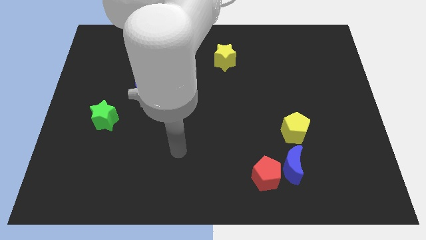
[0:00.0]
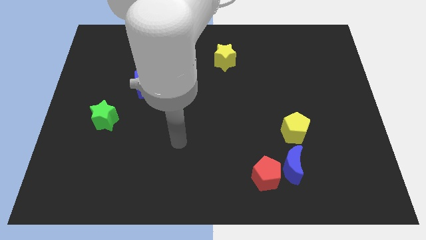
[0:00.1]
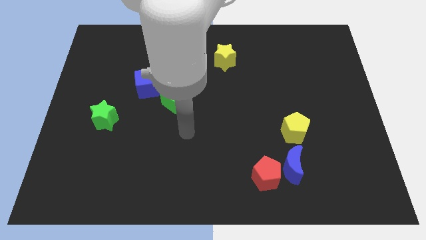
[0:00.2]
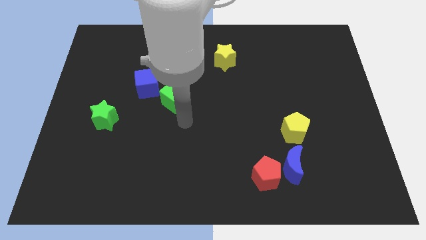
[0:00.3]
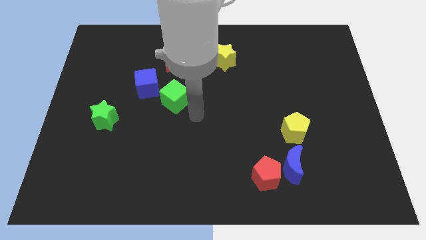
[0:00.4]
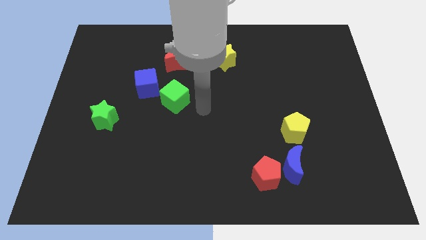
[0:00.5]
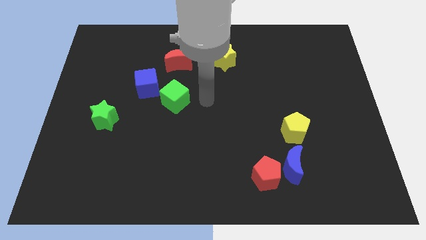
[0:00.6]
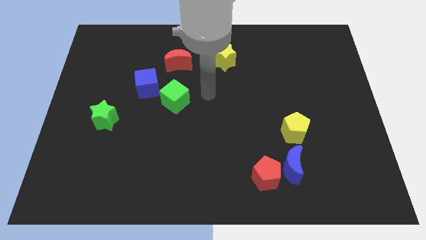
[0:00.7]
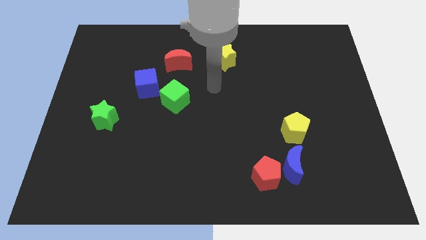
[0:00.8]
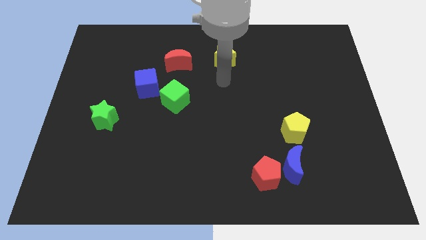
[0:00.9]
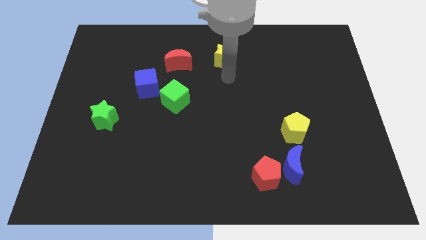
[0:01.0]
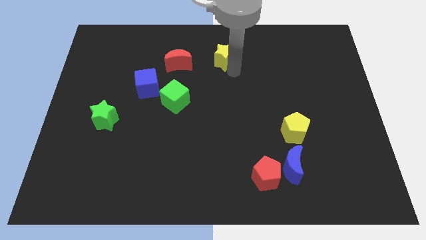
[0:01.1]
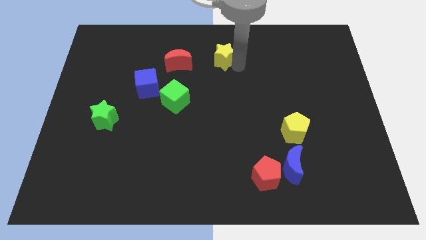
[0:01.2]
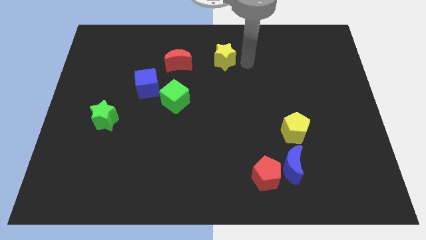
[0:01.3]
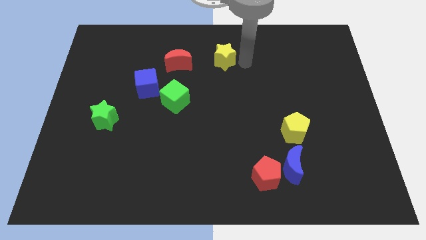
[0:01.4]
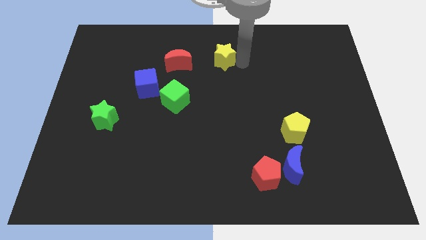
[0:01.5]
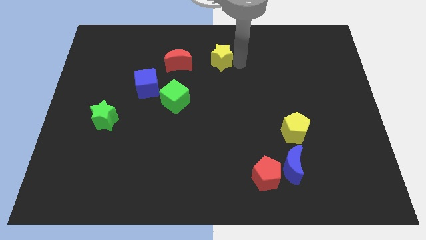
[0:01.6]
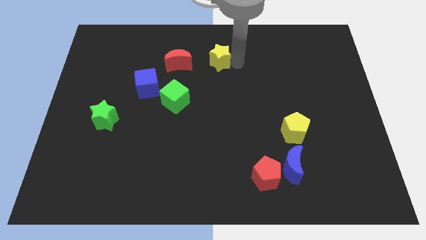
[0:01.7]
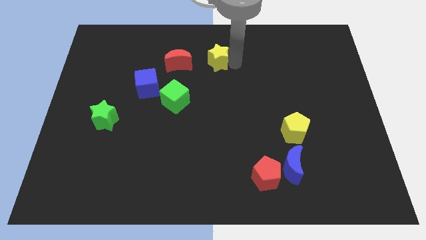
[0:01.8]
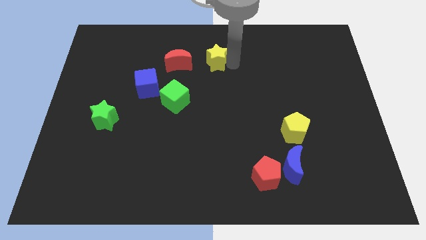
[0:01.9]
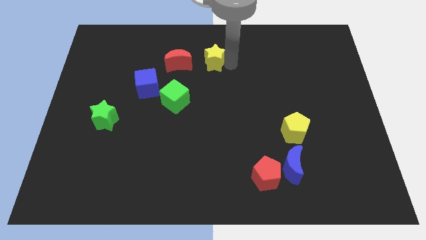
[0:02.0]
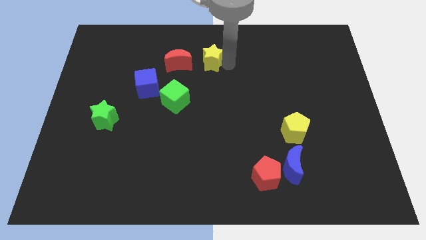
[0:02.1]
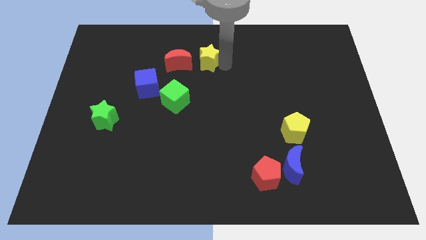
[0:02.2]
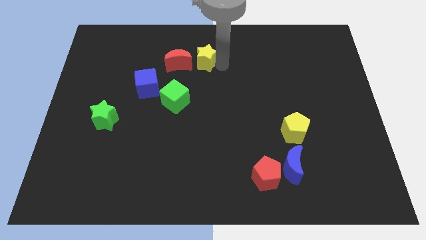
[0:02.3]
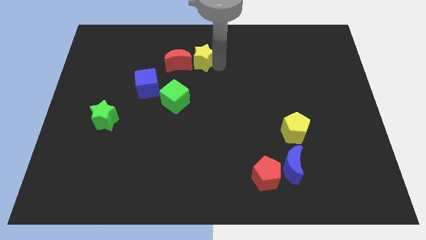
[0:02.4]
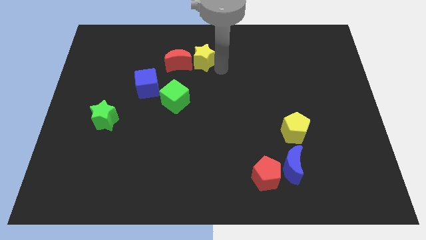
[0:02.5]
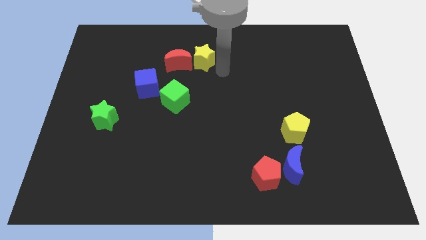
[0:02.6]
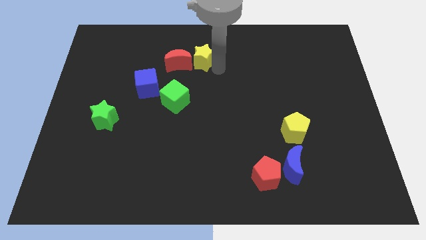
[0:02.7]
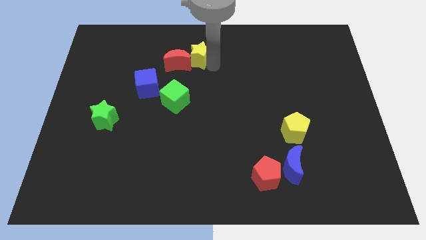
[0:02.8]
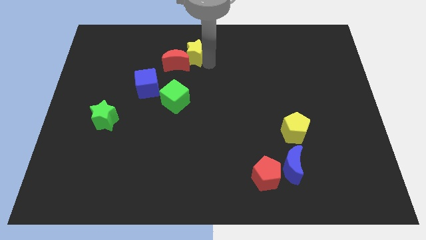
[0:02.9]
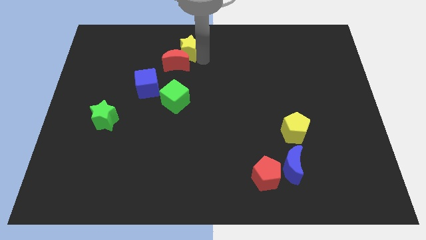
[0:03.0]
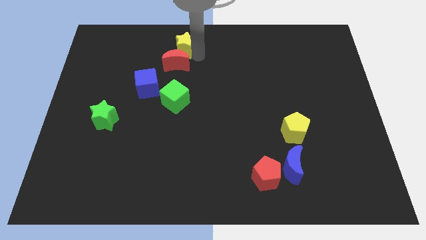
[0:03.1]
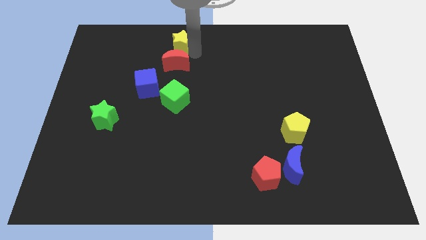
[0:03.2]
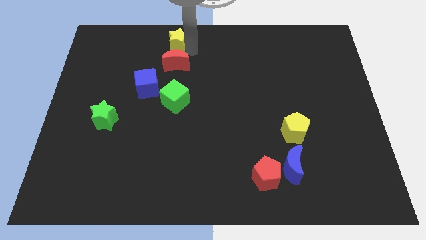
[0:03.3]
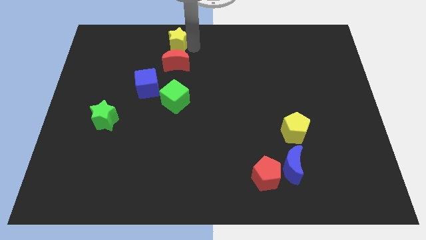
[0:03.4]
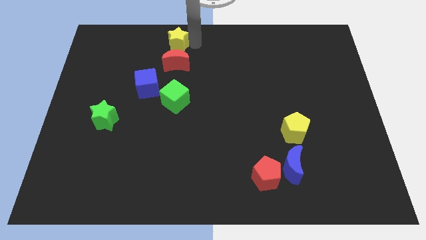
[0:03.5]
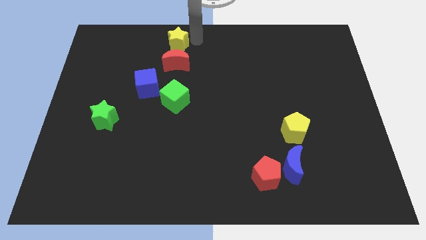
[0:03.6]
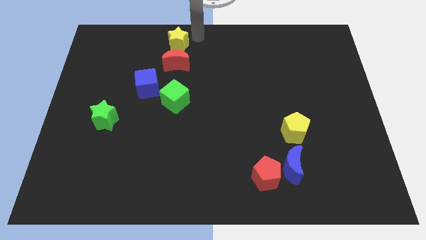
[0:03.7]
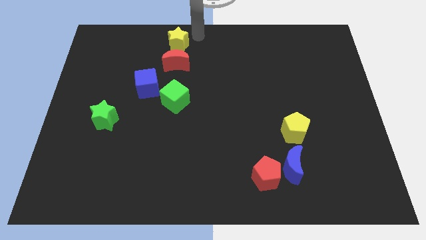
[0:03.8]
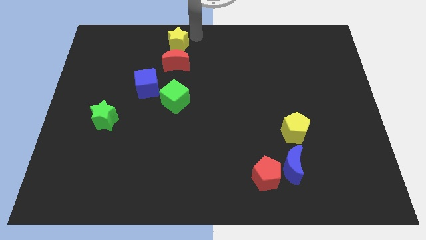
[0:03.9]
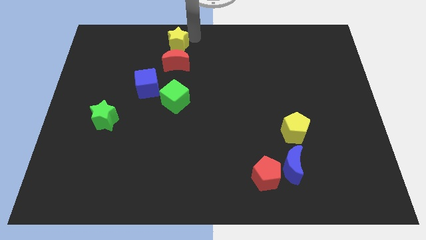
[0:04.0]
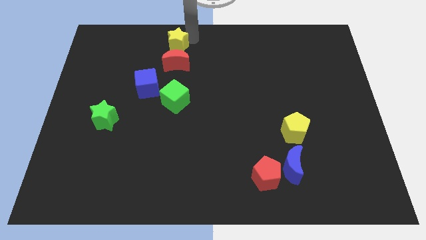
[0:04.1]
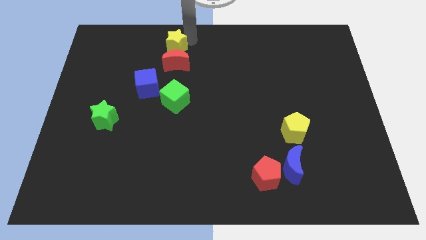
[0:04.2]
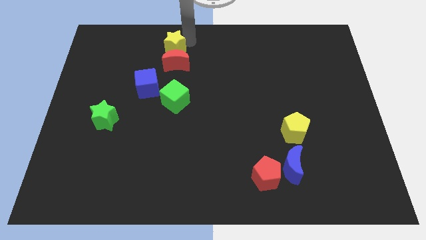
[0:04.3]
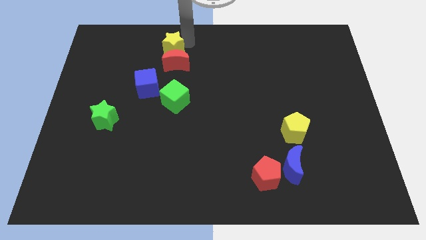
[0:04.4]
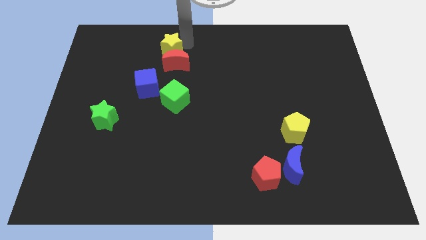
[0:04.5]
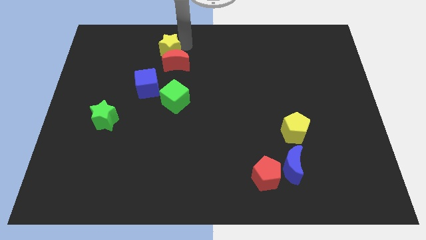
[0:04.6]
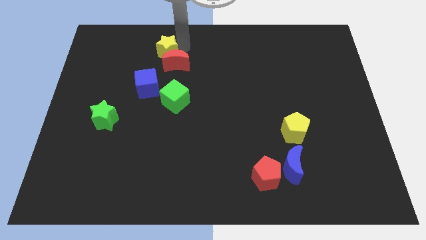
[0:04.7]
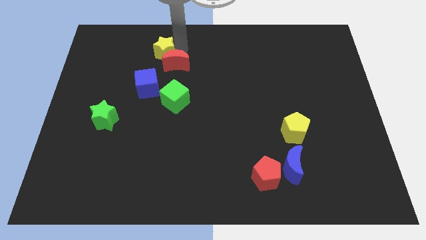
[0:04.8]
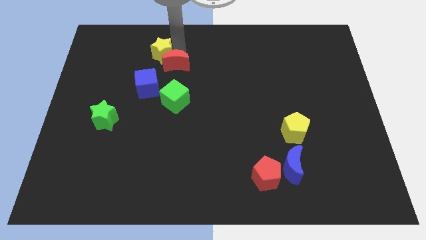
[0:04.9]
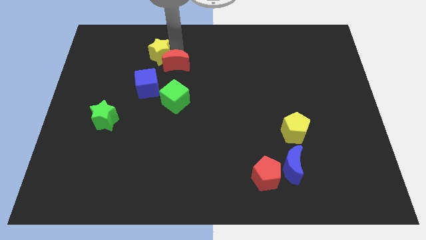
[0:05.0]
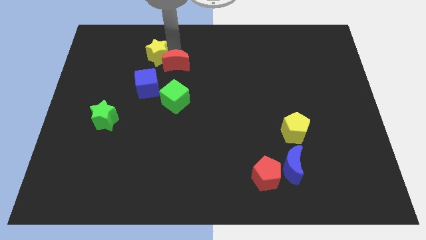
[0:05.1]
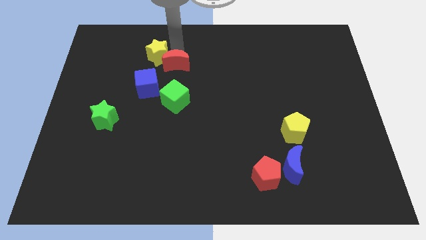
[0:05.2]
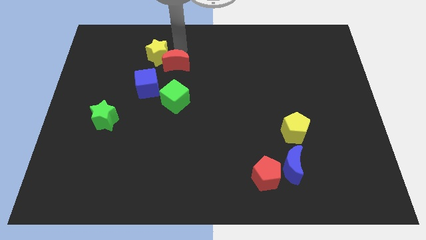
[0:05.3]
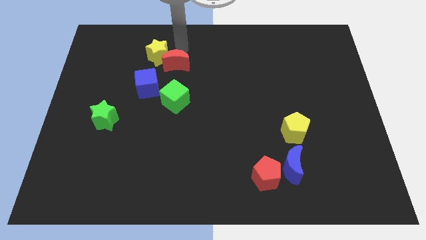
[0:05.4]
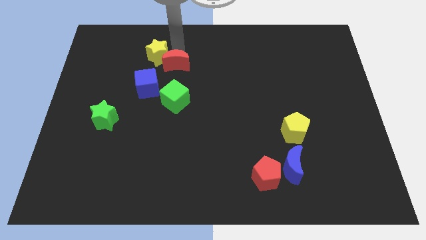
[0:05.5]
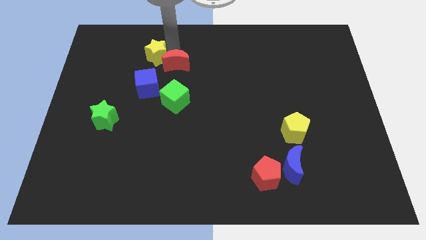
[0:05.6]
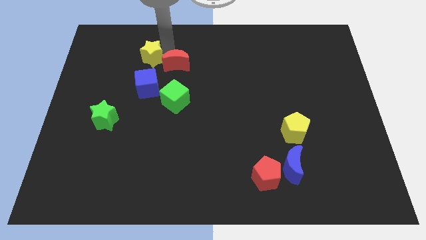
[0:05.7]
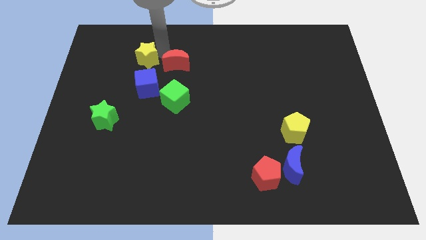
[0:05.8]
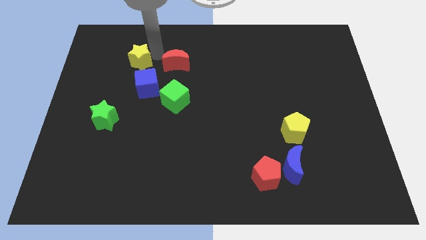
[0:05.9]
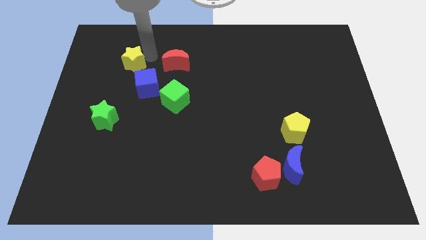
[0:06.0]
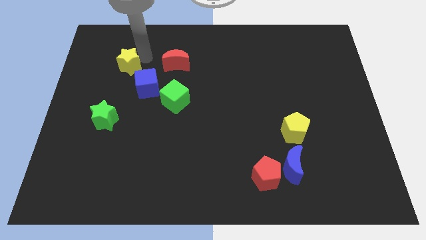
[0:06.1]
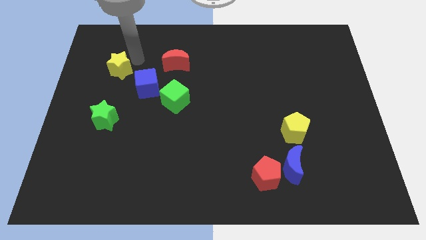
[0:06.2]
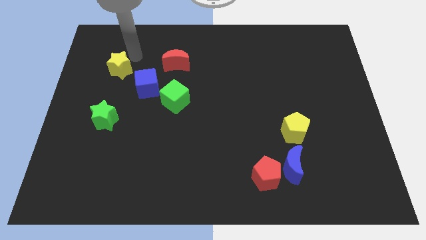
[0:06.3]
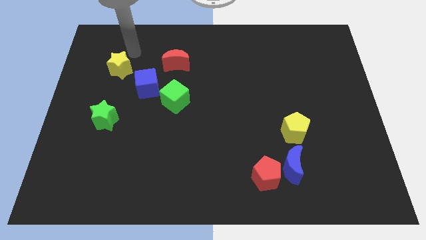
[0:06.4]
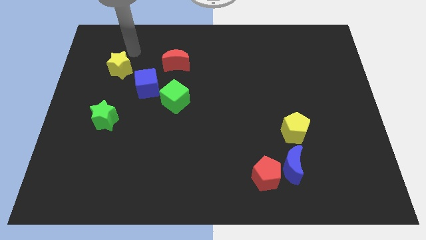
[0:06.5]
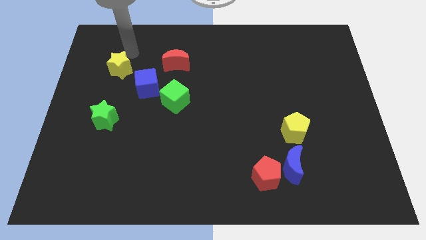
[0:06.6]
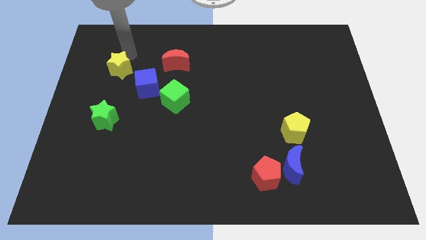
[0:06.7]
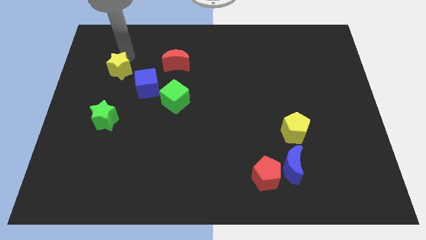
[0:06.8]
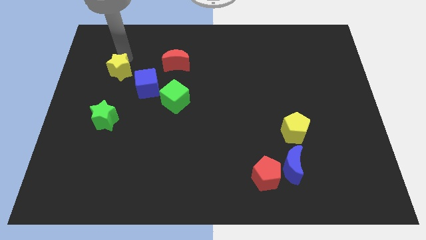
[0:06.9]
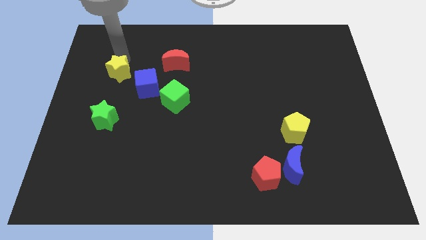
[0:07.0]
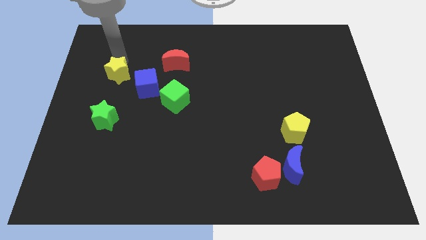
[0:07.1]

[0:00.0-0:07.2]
push the yellow star to the left side of the blue cube
